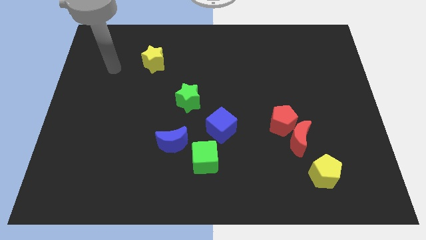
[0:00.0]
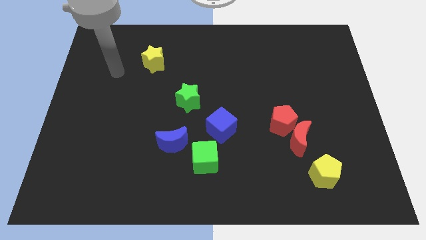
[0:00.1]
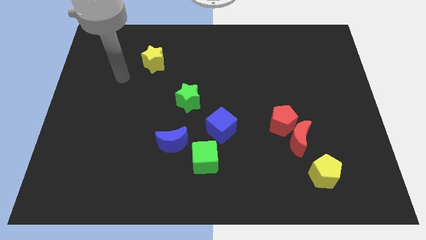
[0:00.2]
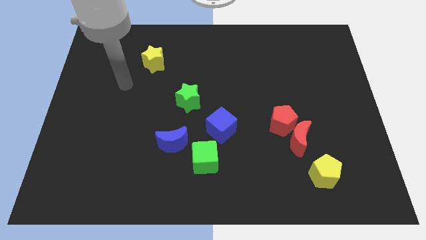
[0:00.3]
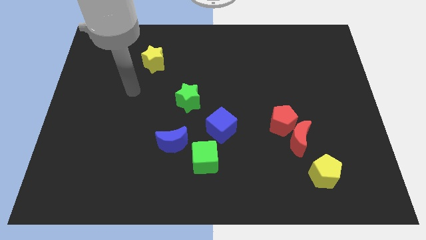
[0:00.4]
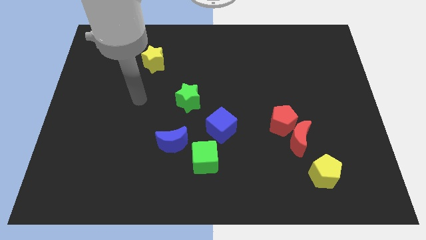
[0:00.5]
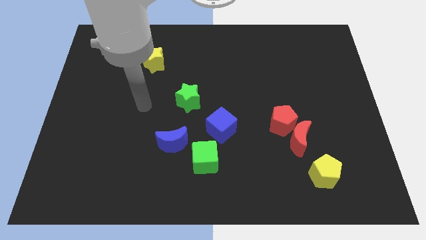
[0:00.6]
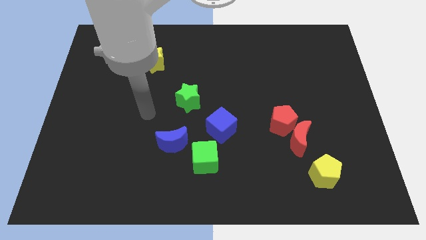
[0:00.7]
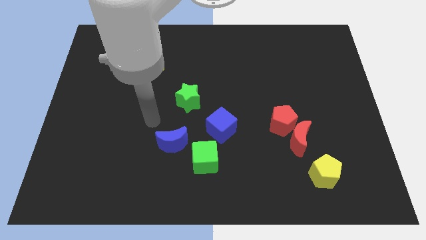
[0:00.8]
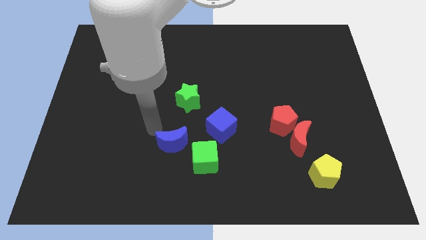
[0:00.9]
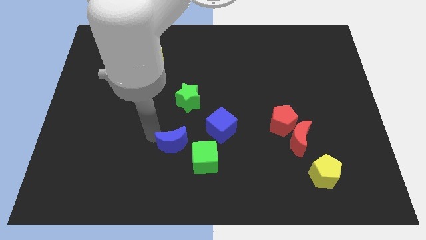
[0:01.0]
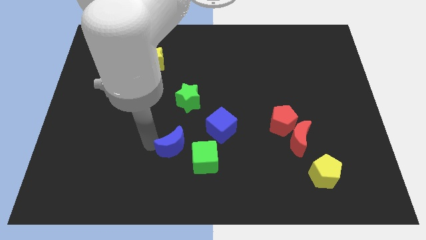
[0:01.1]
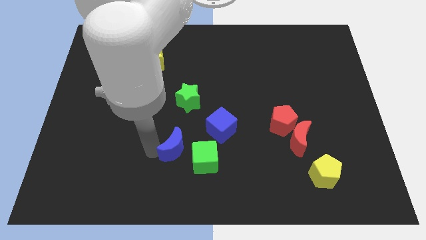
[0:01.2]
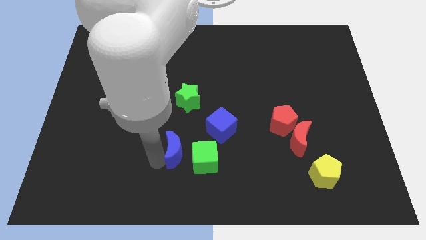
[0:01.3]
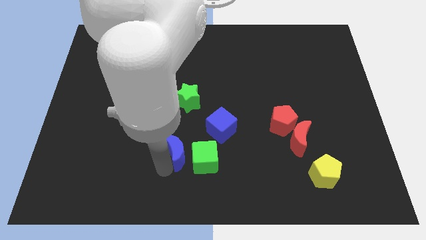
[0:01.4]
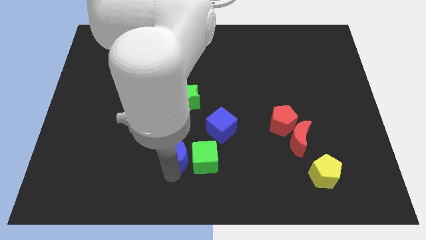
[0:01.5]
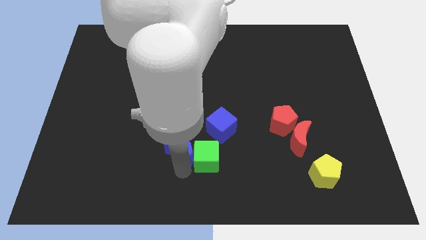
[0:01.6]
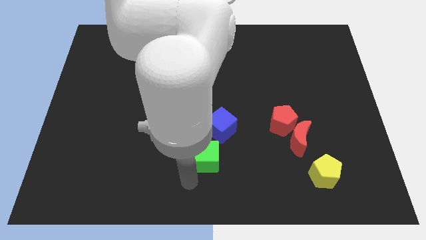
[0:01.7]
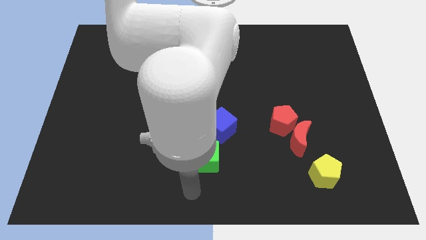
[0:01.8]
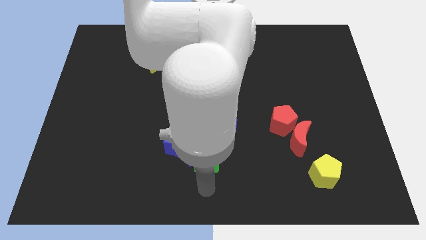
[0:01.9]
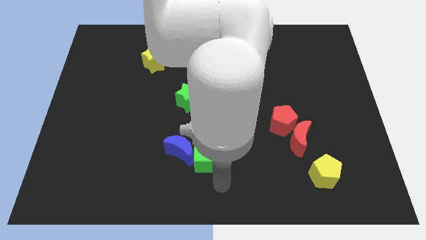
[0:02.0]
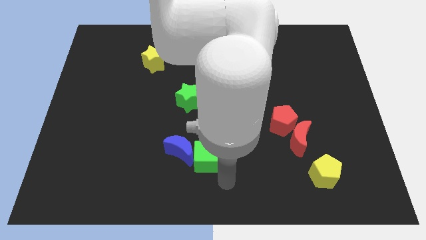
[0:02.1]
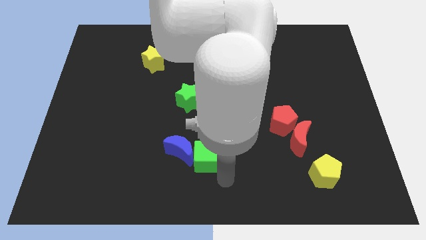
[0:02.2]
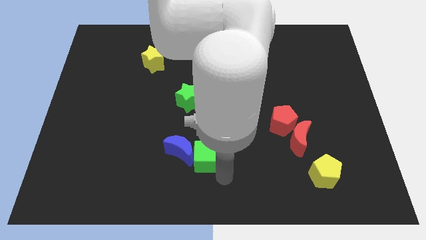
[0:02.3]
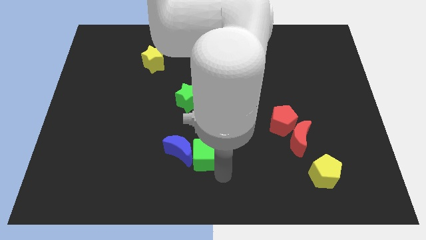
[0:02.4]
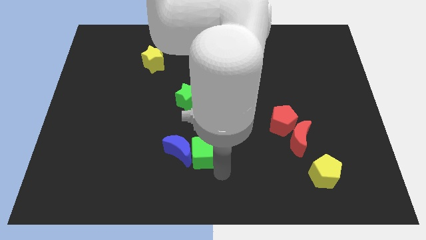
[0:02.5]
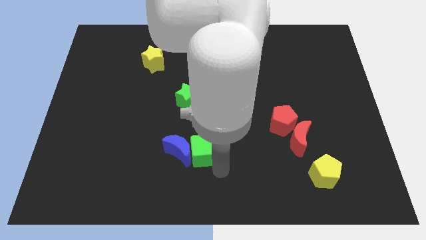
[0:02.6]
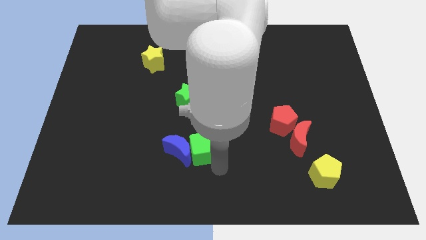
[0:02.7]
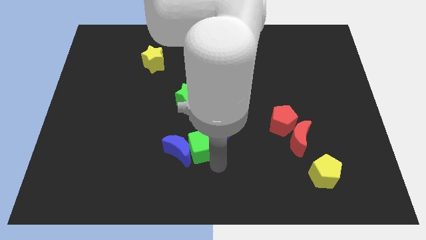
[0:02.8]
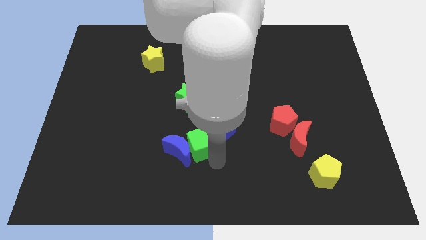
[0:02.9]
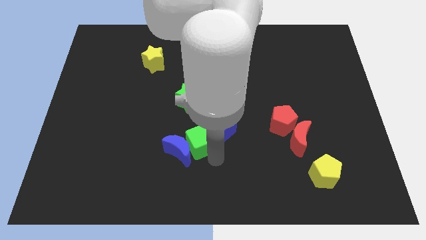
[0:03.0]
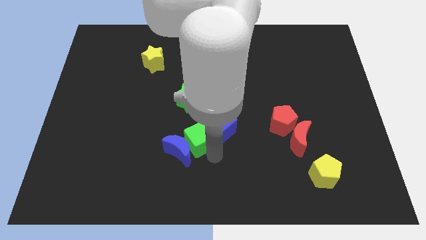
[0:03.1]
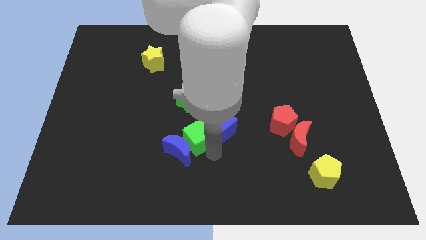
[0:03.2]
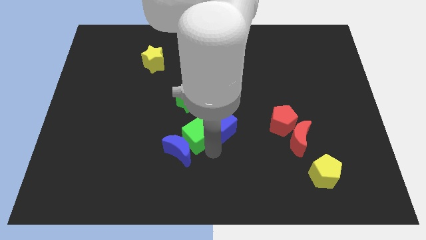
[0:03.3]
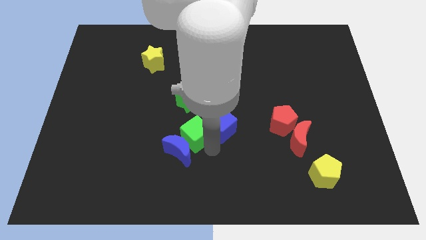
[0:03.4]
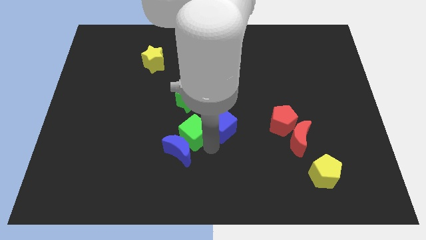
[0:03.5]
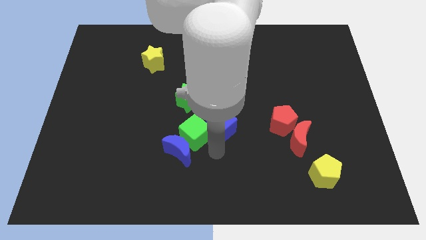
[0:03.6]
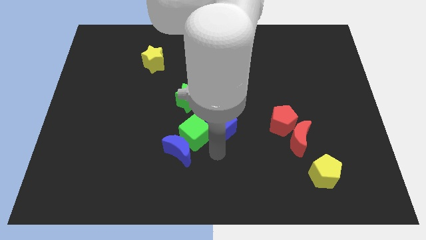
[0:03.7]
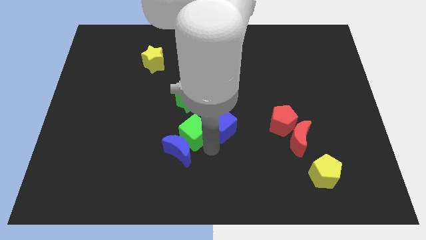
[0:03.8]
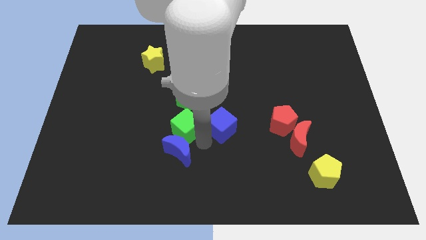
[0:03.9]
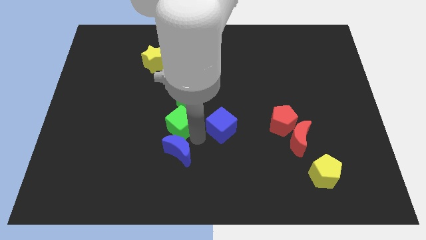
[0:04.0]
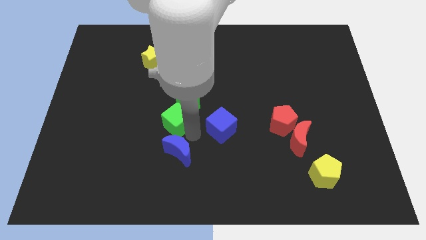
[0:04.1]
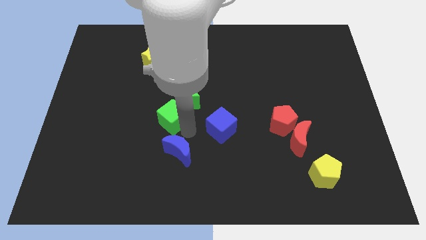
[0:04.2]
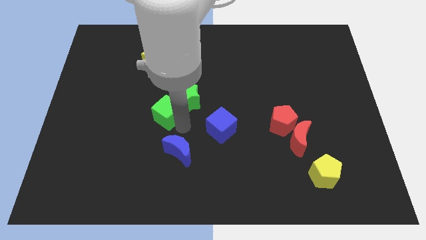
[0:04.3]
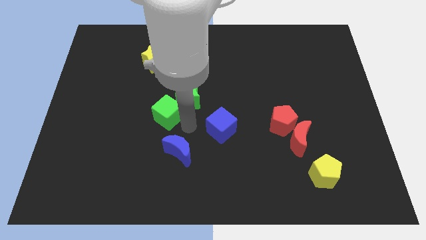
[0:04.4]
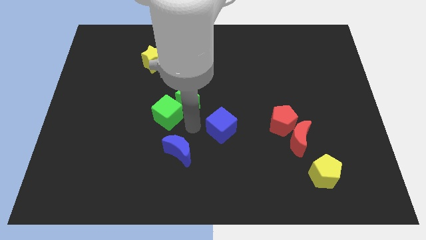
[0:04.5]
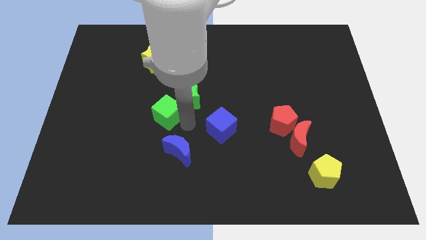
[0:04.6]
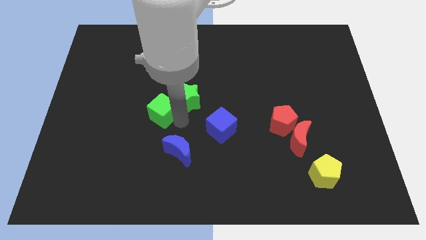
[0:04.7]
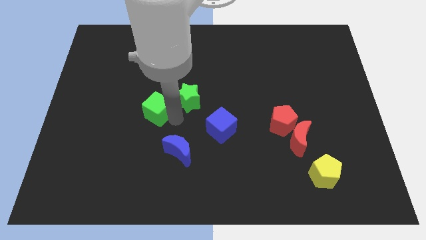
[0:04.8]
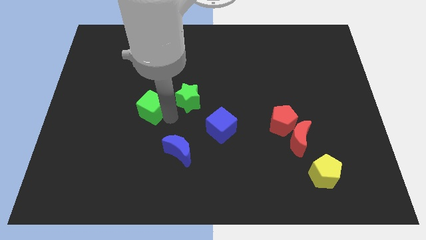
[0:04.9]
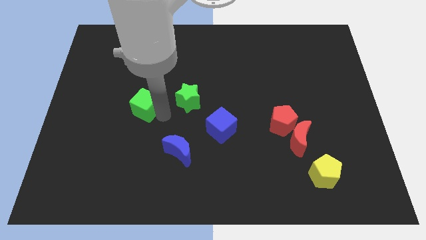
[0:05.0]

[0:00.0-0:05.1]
slide the green cube upwards and to the left

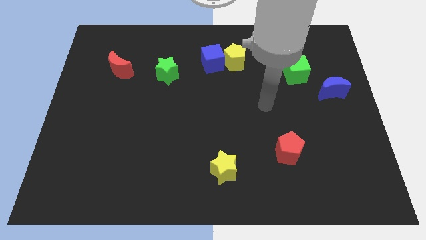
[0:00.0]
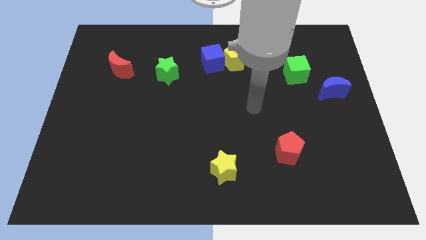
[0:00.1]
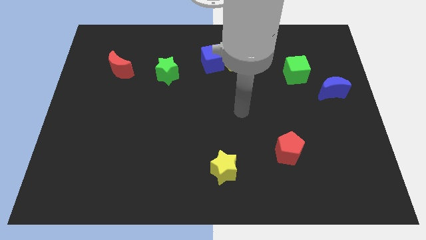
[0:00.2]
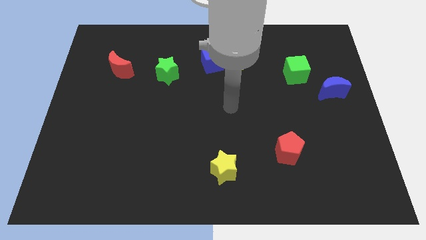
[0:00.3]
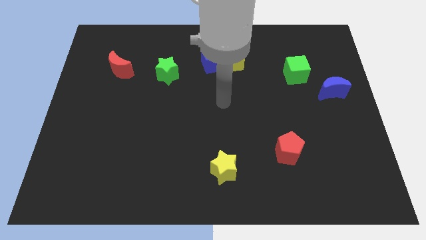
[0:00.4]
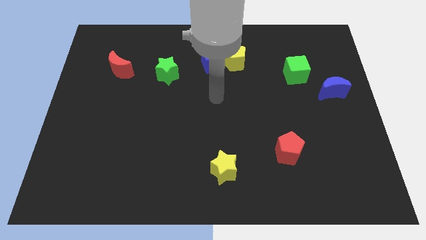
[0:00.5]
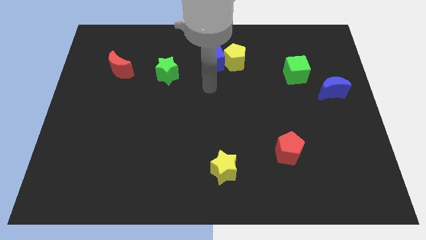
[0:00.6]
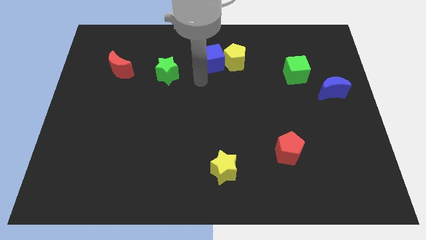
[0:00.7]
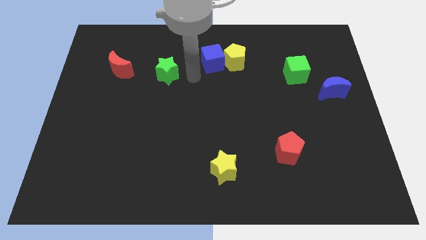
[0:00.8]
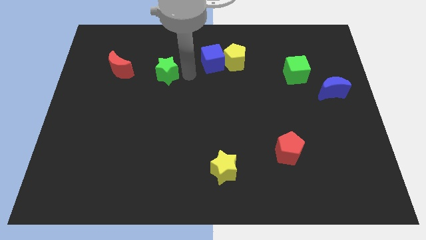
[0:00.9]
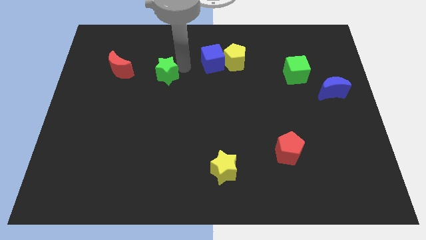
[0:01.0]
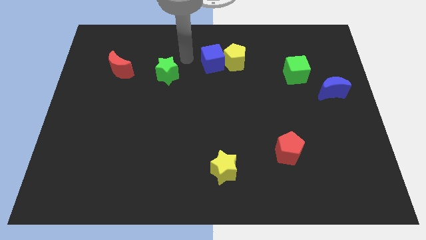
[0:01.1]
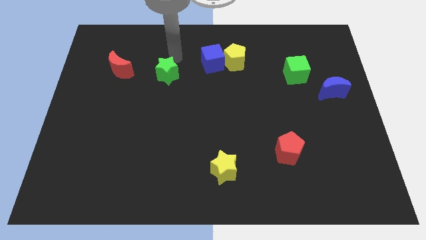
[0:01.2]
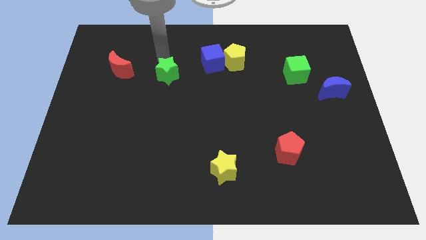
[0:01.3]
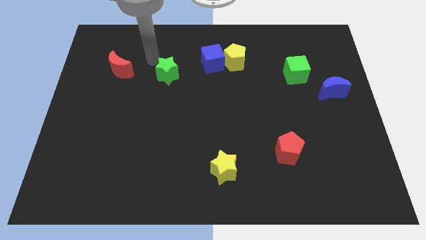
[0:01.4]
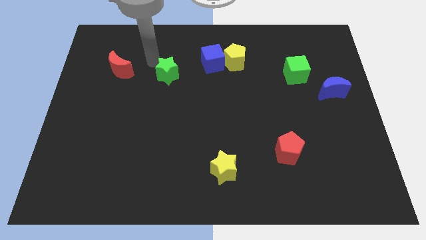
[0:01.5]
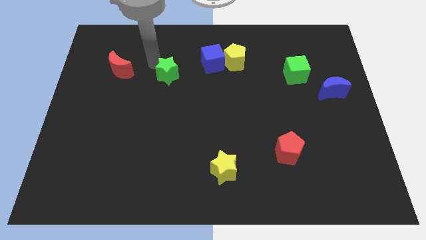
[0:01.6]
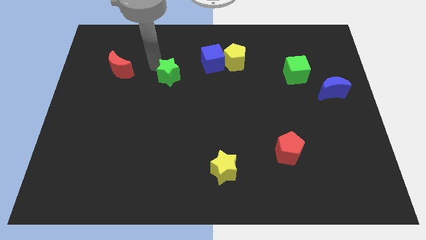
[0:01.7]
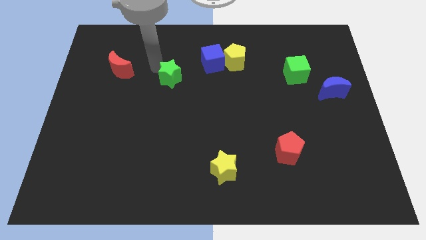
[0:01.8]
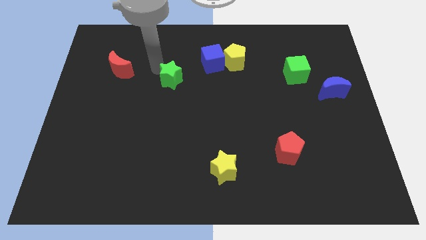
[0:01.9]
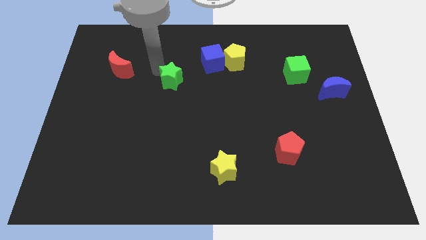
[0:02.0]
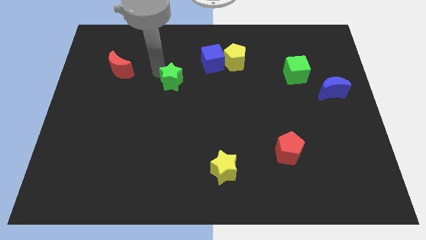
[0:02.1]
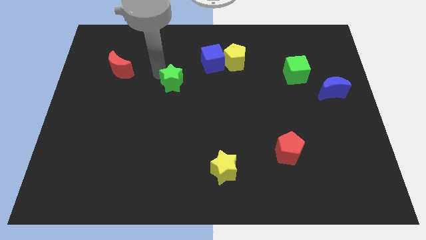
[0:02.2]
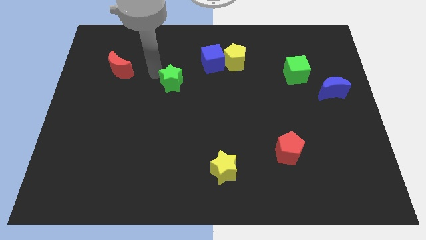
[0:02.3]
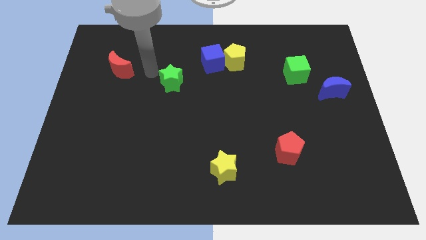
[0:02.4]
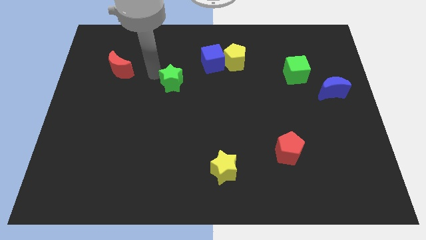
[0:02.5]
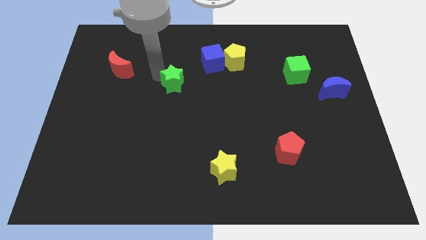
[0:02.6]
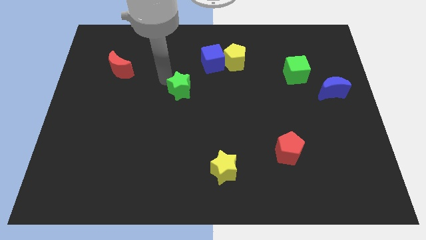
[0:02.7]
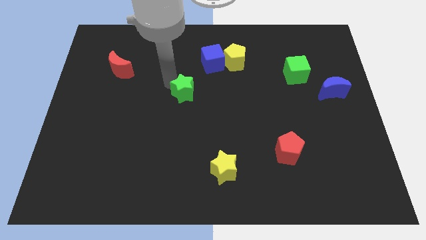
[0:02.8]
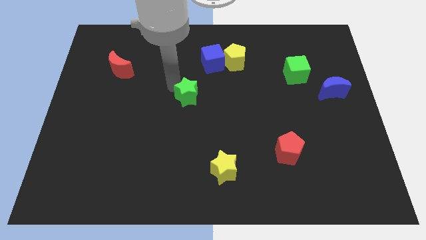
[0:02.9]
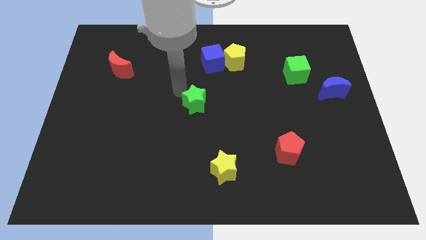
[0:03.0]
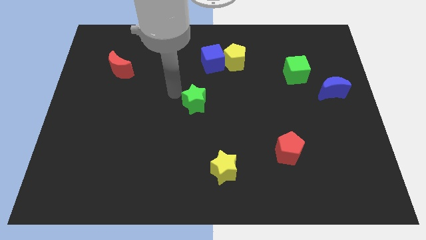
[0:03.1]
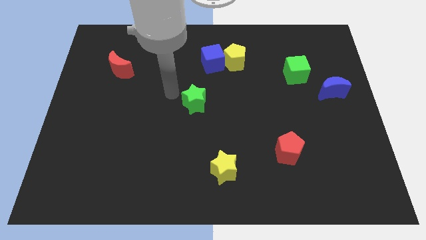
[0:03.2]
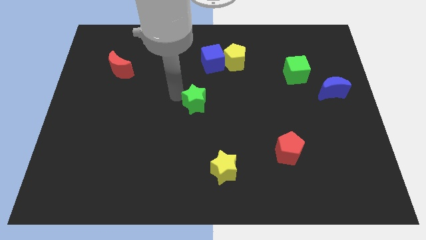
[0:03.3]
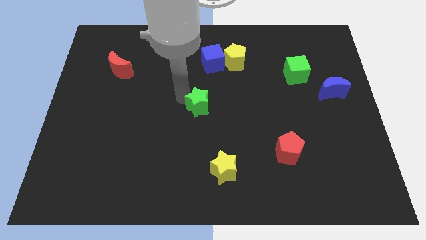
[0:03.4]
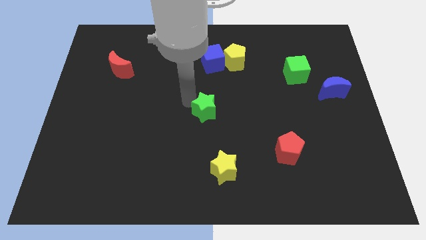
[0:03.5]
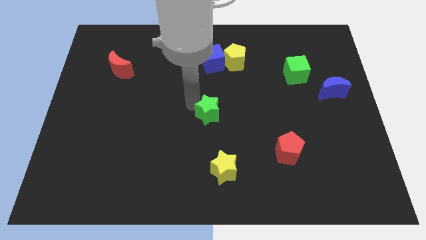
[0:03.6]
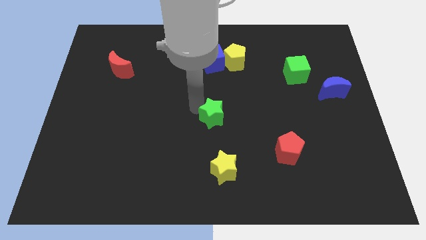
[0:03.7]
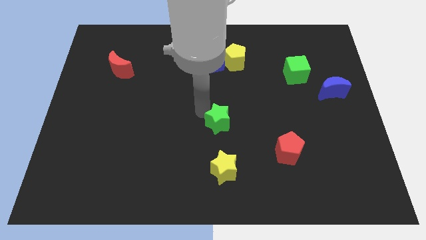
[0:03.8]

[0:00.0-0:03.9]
slide the green star diagonally down and to the right
